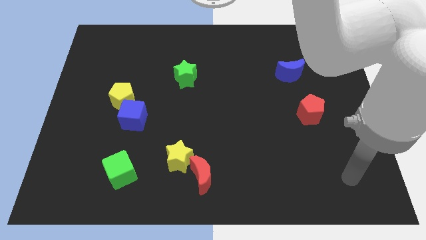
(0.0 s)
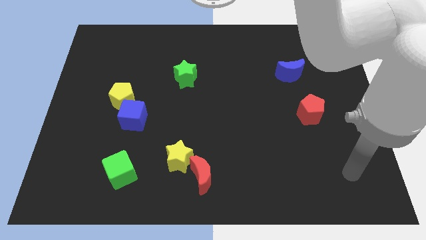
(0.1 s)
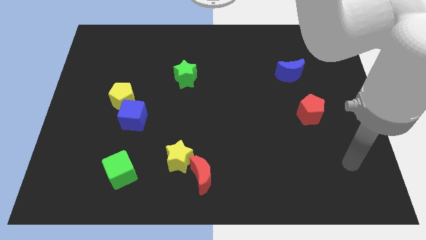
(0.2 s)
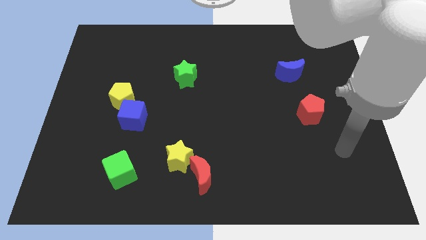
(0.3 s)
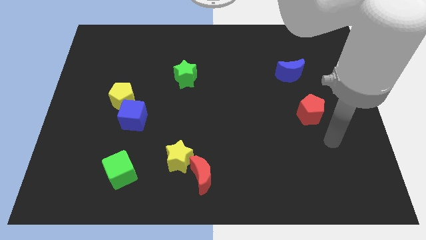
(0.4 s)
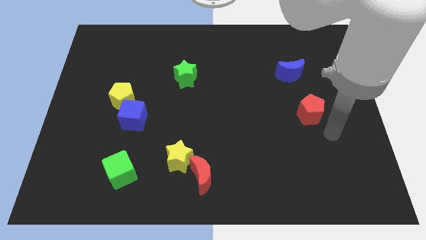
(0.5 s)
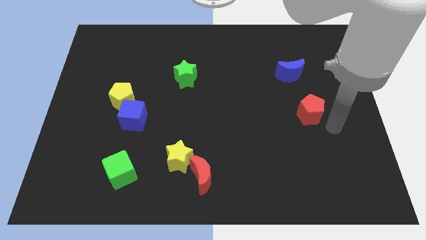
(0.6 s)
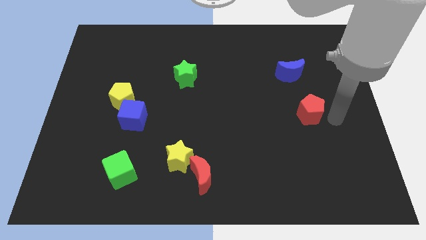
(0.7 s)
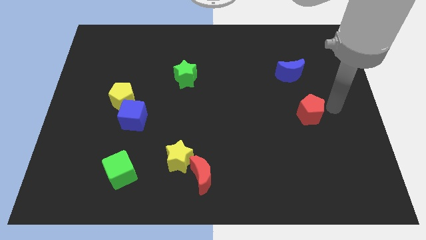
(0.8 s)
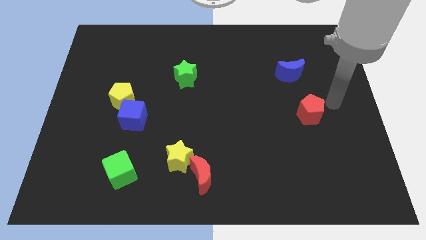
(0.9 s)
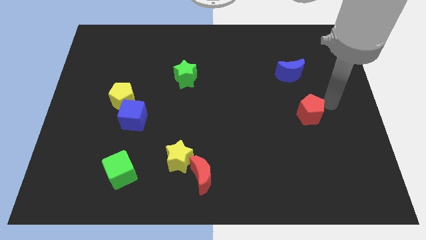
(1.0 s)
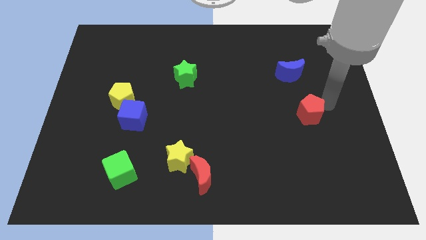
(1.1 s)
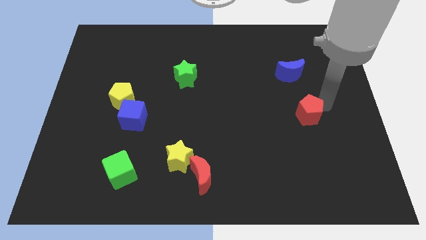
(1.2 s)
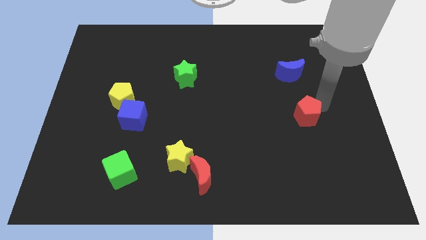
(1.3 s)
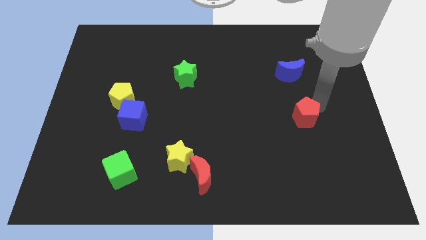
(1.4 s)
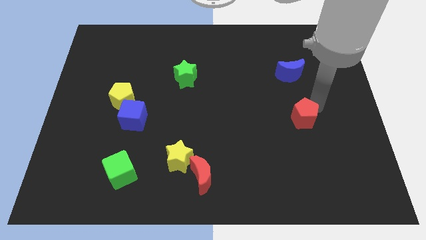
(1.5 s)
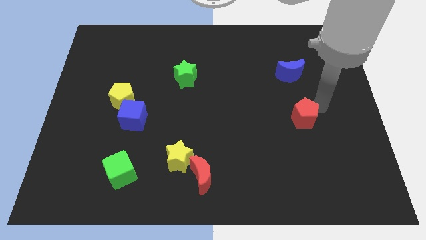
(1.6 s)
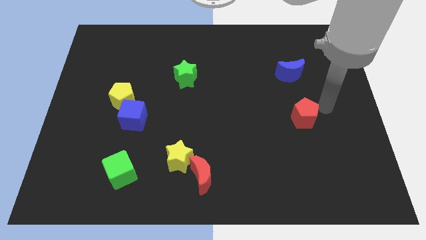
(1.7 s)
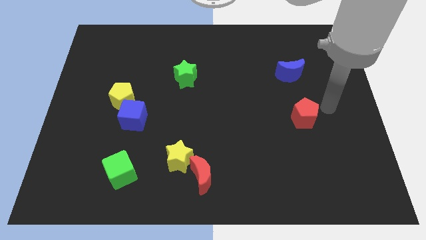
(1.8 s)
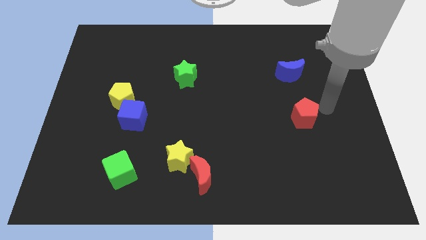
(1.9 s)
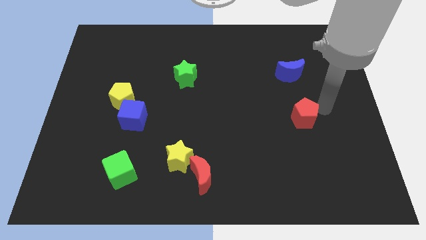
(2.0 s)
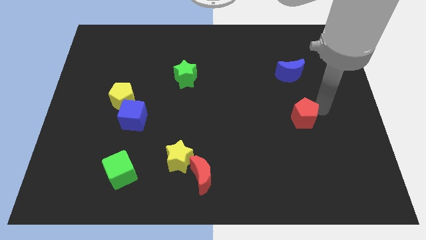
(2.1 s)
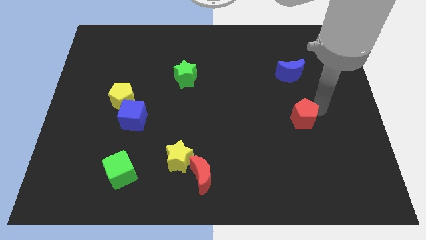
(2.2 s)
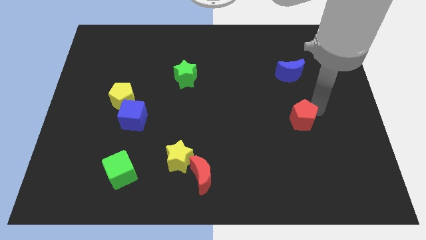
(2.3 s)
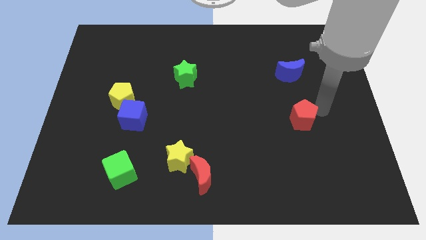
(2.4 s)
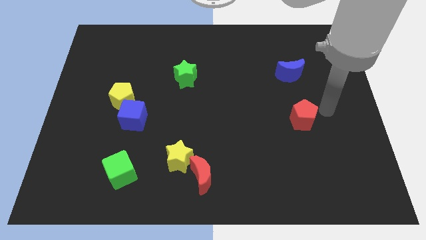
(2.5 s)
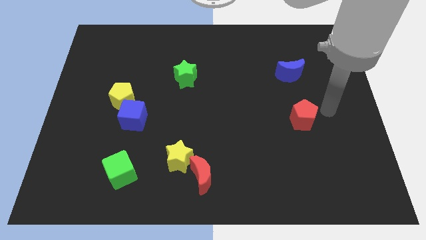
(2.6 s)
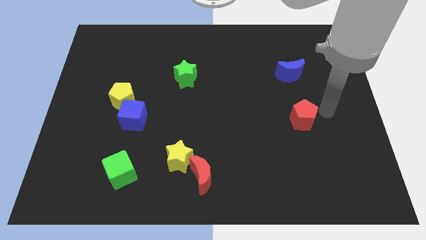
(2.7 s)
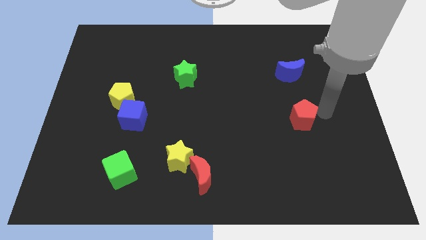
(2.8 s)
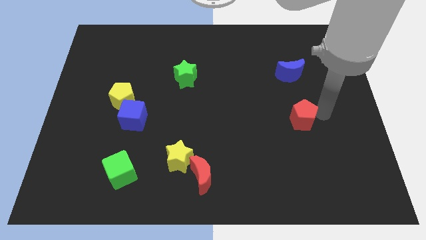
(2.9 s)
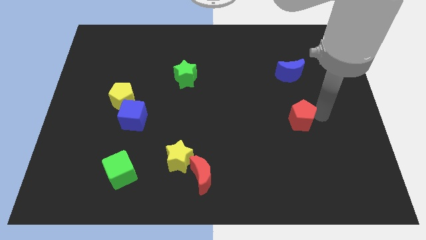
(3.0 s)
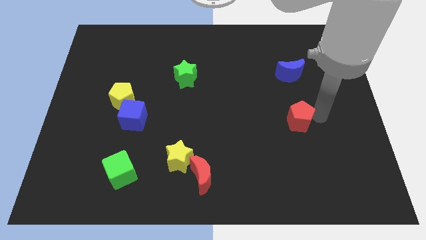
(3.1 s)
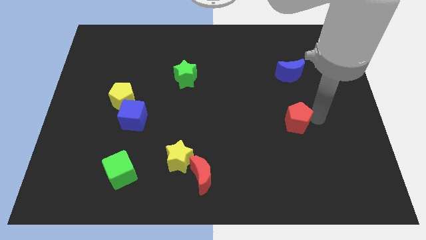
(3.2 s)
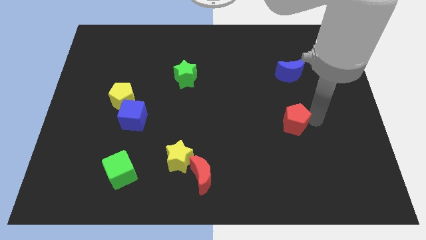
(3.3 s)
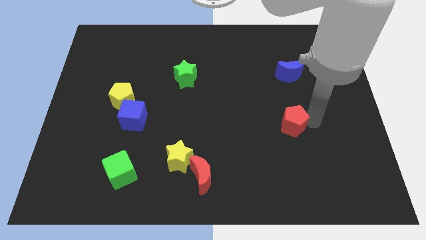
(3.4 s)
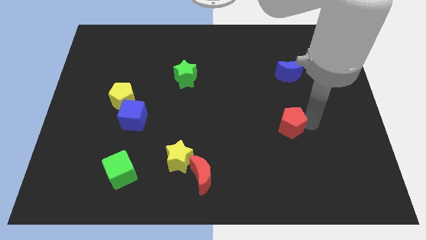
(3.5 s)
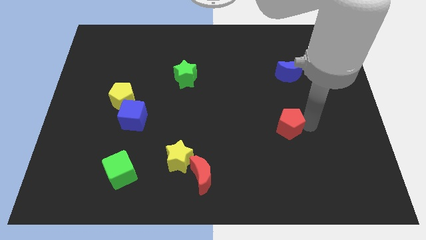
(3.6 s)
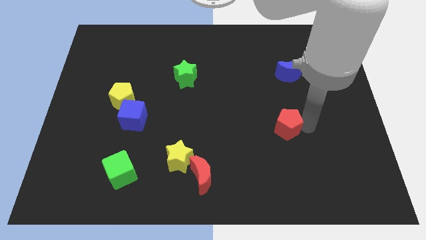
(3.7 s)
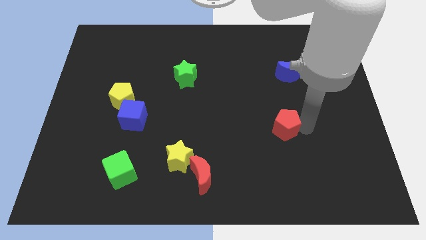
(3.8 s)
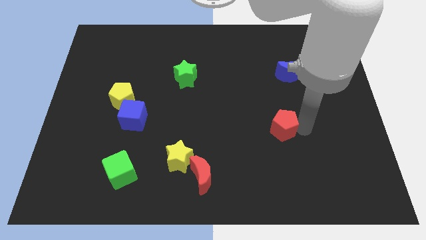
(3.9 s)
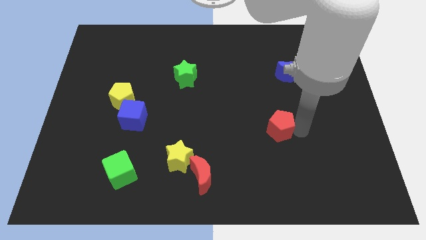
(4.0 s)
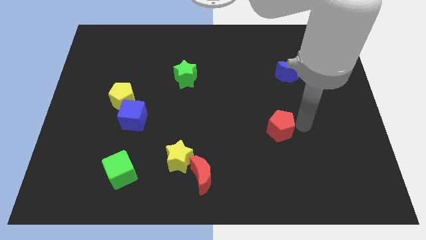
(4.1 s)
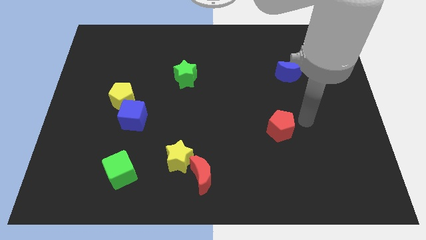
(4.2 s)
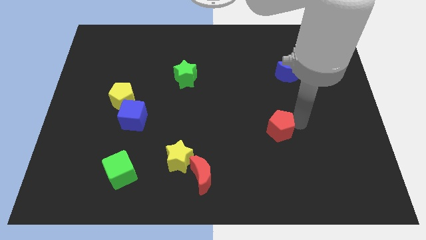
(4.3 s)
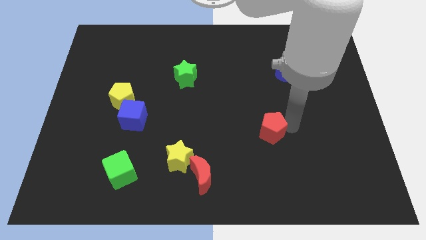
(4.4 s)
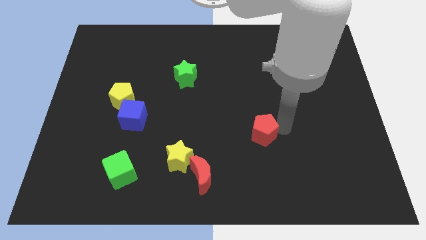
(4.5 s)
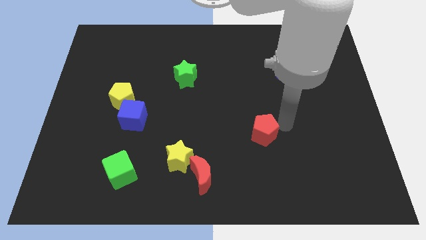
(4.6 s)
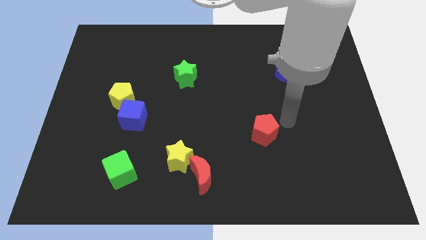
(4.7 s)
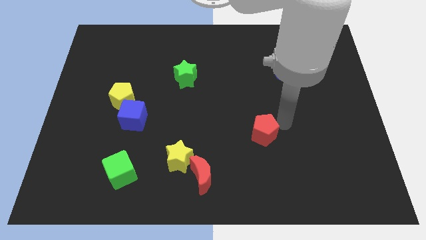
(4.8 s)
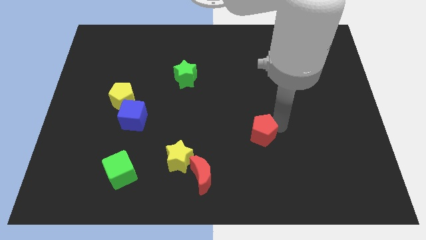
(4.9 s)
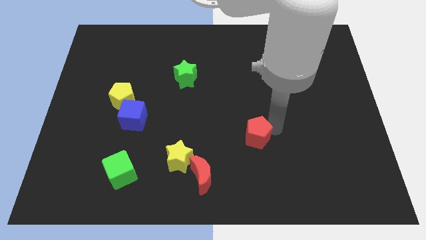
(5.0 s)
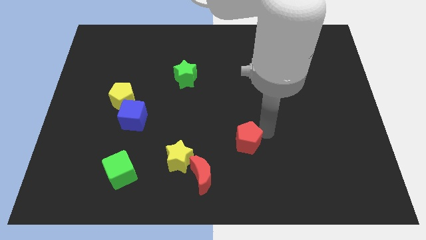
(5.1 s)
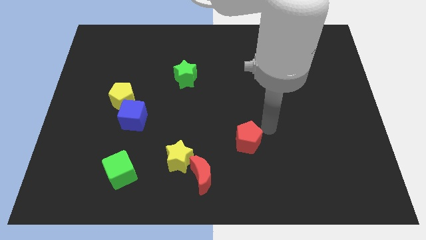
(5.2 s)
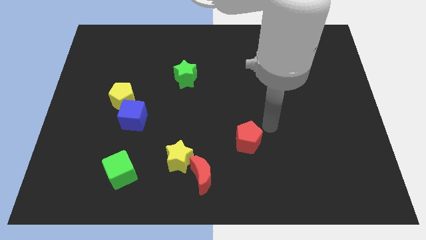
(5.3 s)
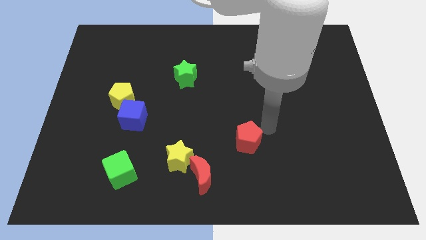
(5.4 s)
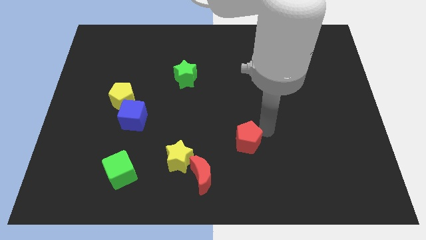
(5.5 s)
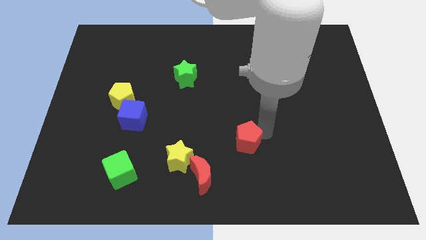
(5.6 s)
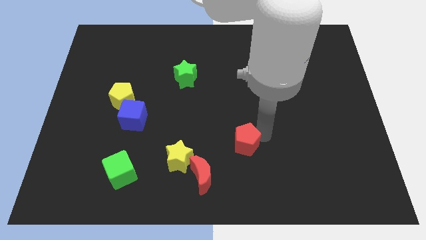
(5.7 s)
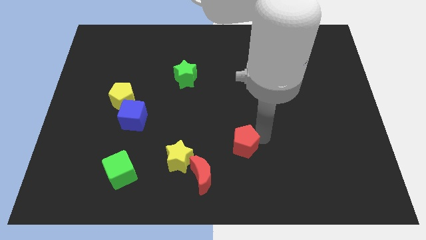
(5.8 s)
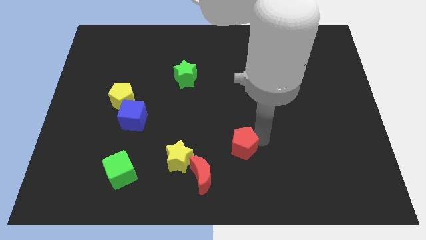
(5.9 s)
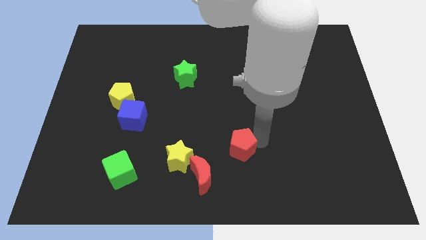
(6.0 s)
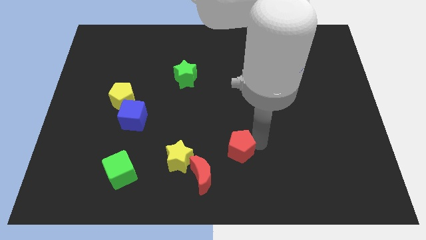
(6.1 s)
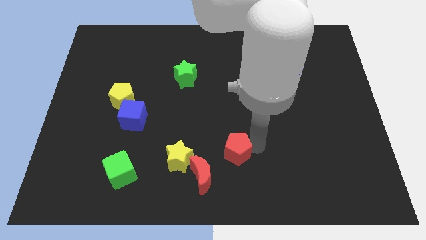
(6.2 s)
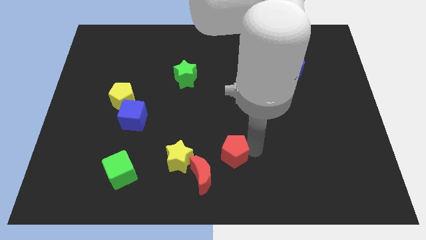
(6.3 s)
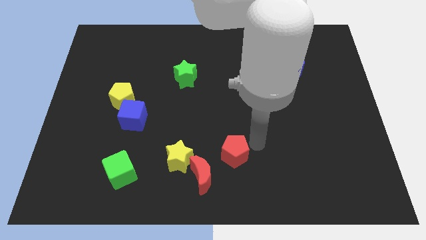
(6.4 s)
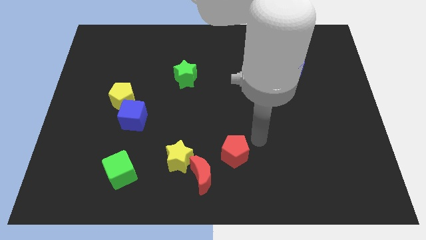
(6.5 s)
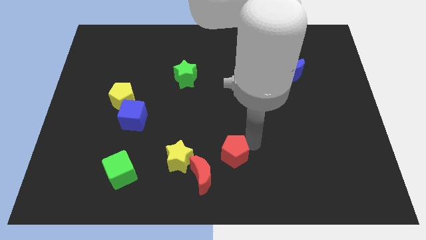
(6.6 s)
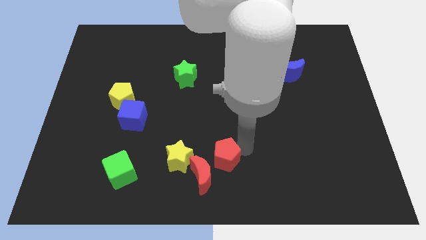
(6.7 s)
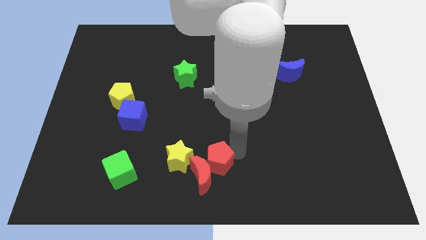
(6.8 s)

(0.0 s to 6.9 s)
push the red pentagon towards the red moon

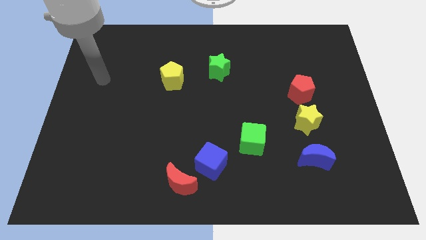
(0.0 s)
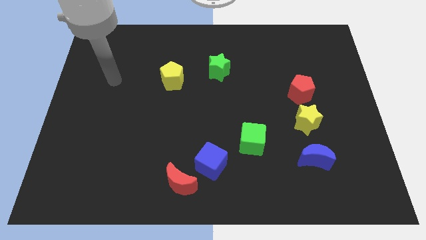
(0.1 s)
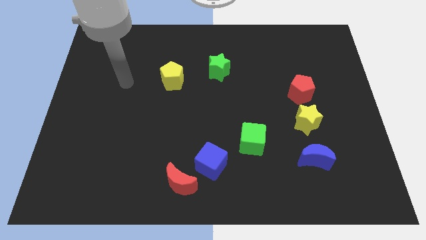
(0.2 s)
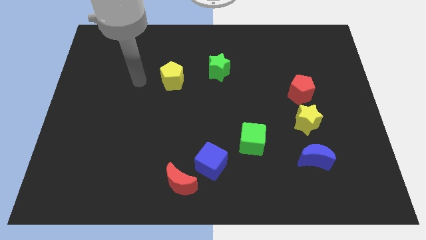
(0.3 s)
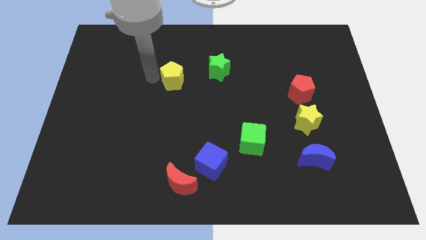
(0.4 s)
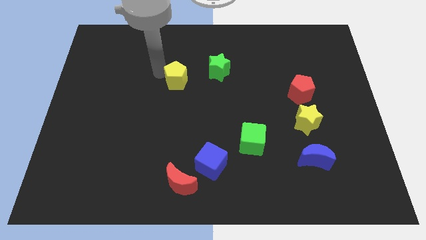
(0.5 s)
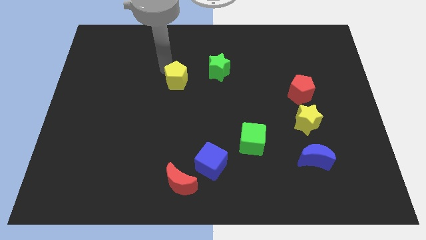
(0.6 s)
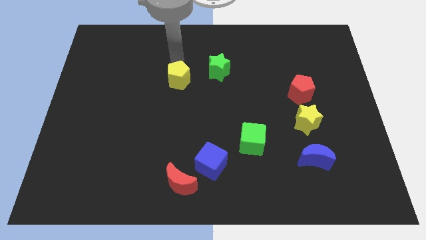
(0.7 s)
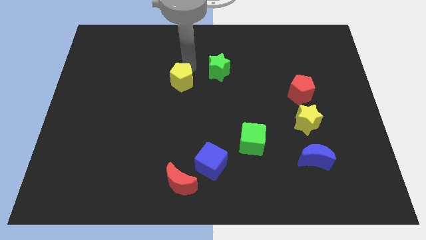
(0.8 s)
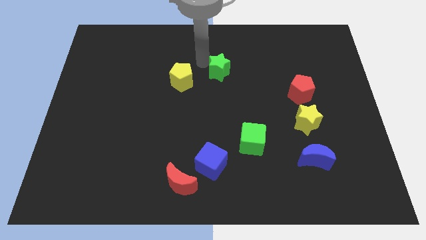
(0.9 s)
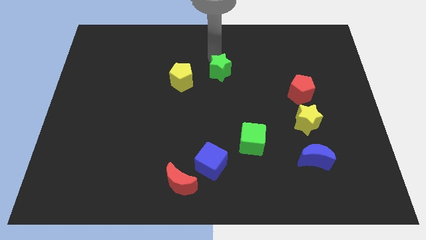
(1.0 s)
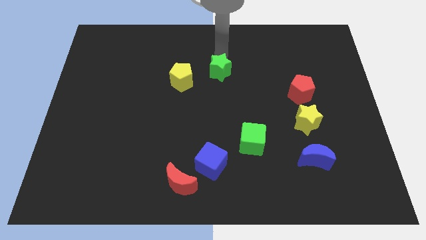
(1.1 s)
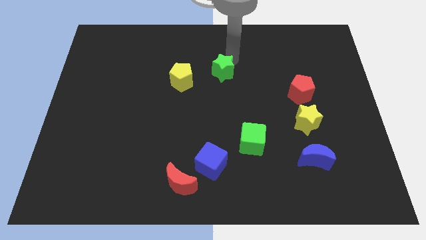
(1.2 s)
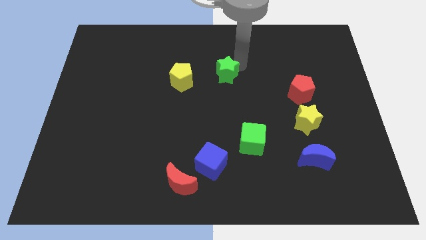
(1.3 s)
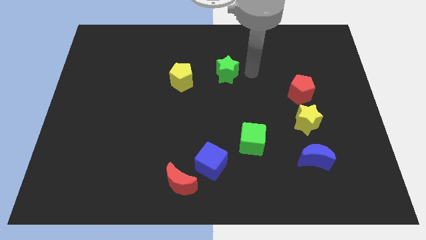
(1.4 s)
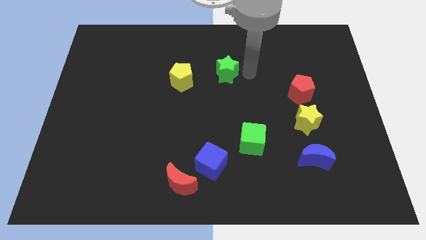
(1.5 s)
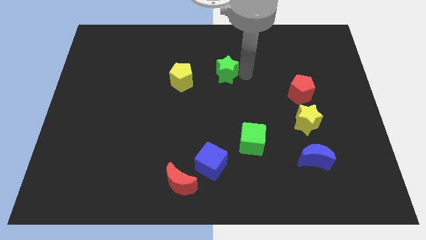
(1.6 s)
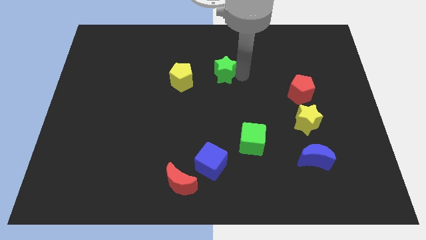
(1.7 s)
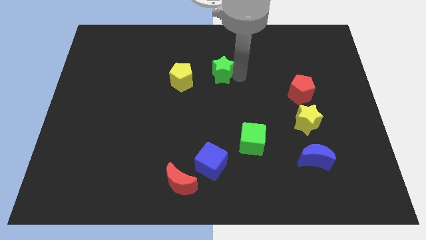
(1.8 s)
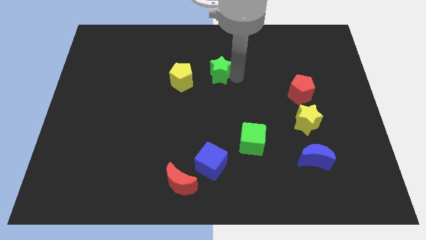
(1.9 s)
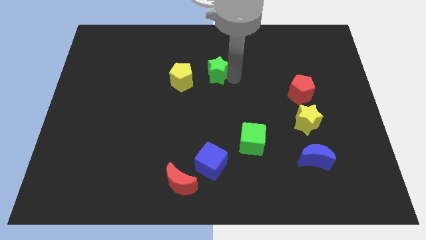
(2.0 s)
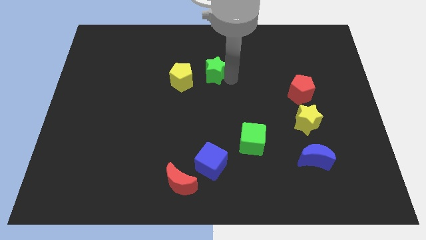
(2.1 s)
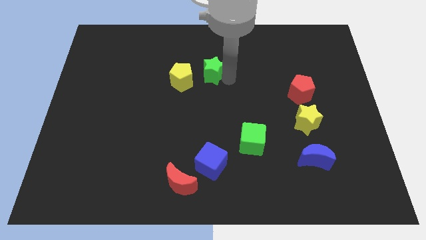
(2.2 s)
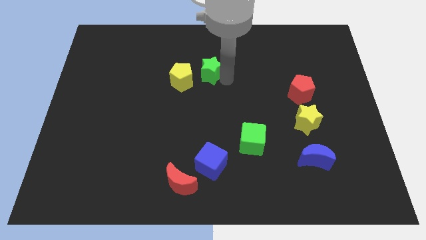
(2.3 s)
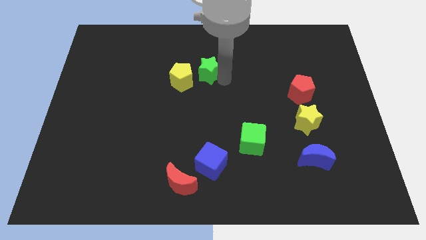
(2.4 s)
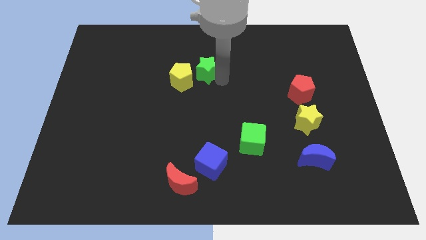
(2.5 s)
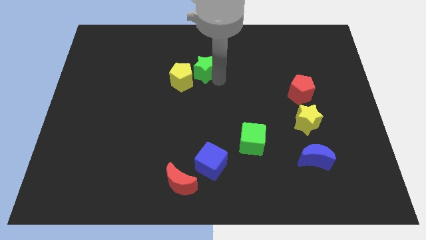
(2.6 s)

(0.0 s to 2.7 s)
slide the green star next to the yellow pentagon
